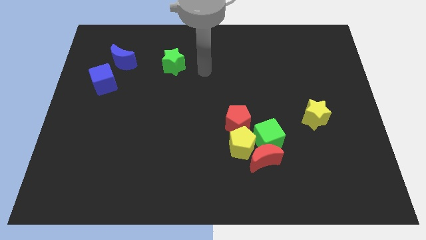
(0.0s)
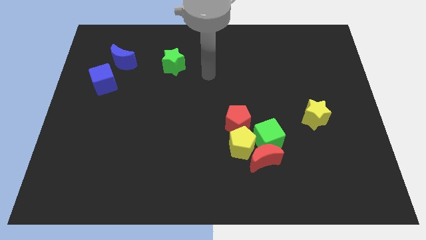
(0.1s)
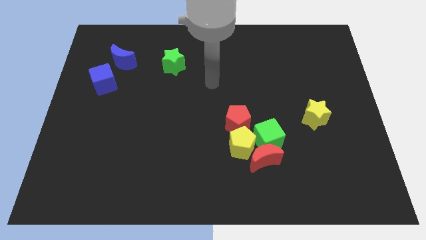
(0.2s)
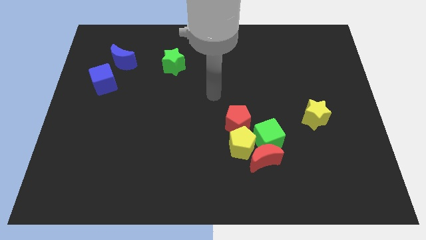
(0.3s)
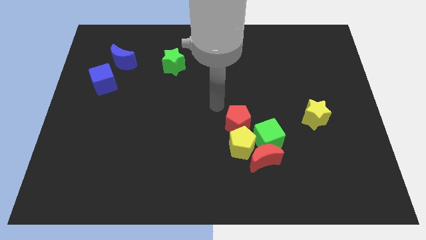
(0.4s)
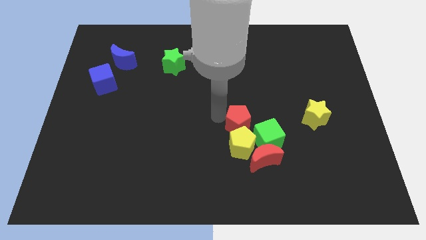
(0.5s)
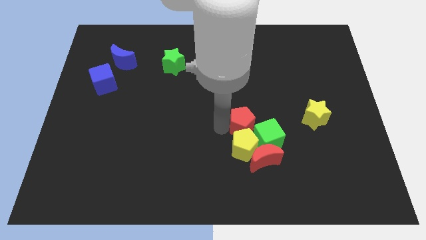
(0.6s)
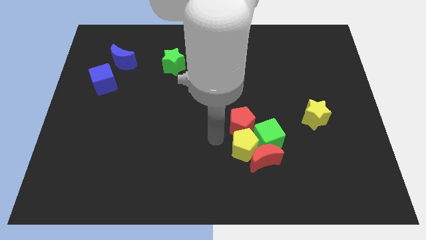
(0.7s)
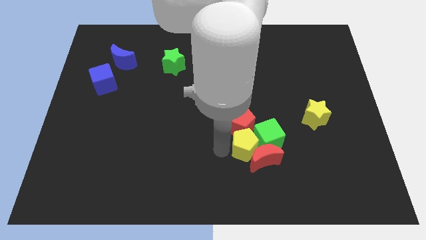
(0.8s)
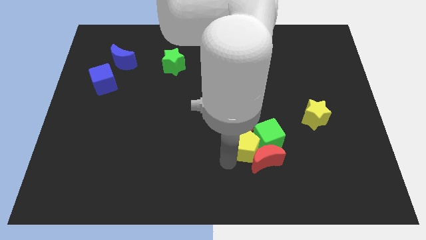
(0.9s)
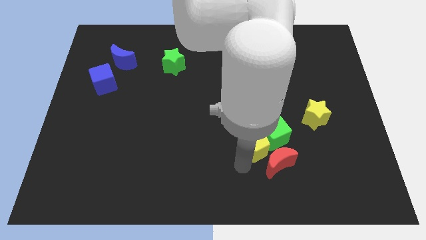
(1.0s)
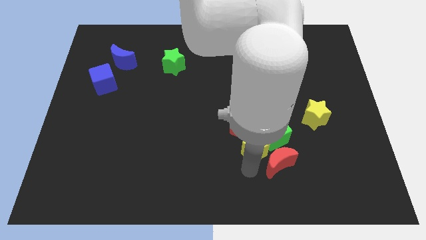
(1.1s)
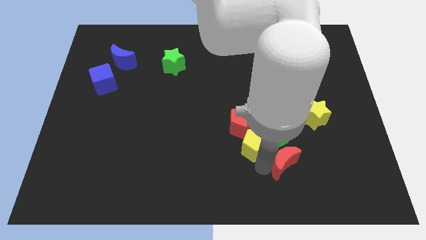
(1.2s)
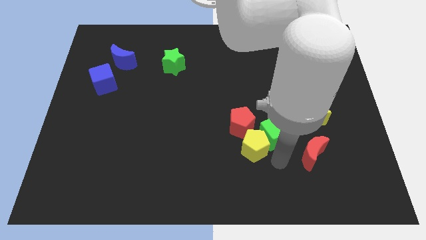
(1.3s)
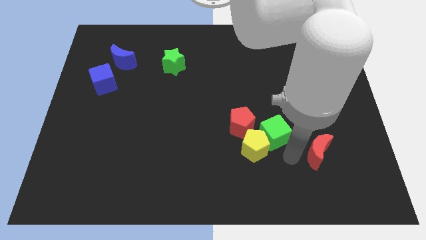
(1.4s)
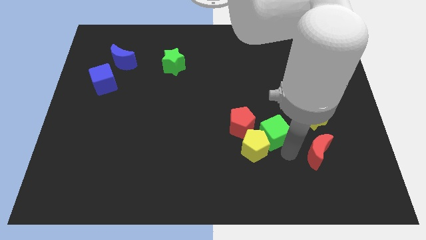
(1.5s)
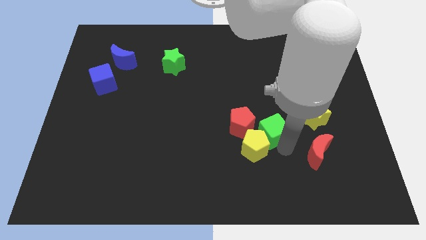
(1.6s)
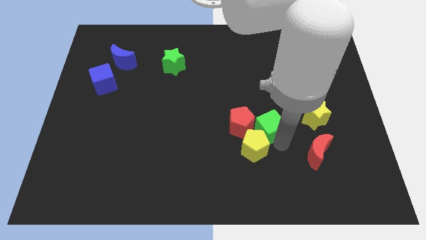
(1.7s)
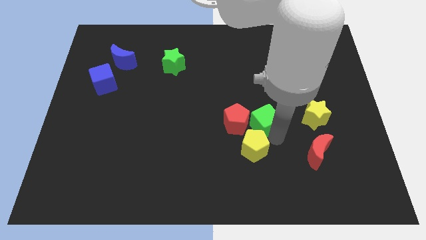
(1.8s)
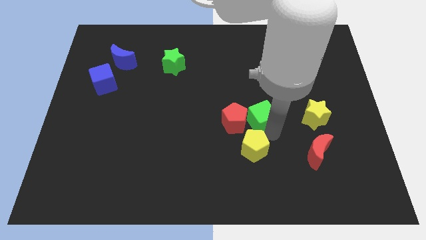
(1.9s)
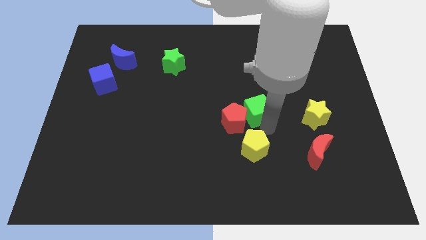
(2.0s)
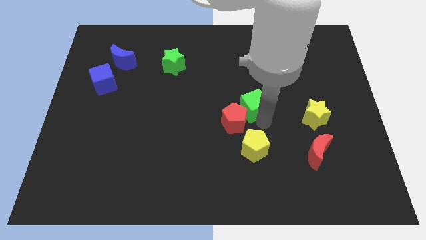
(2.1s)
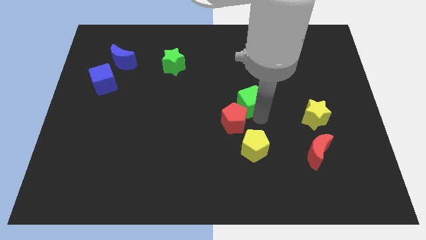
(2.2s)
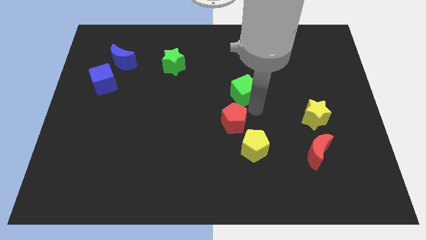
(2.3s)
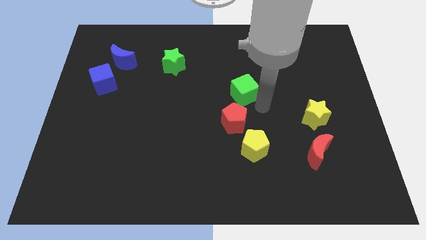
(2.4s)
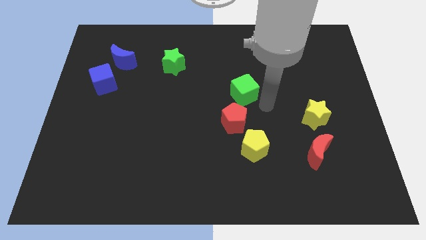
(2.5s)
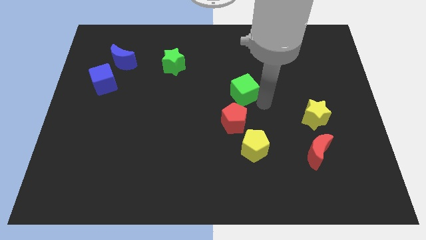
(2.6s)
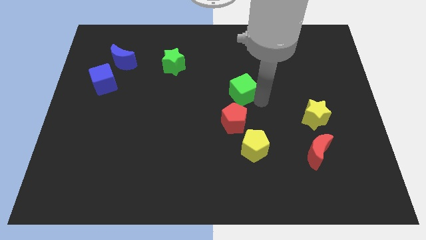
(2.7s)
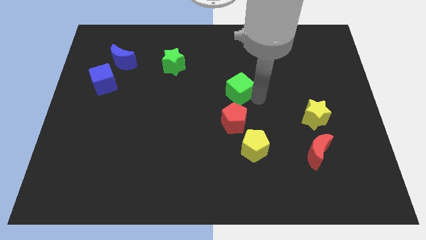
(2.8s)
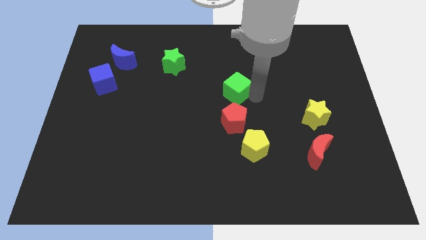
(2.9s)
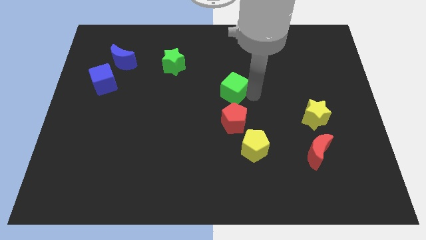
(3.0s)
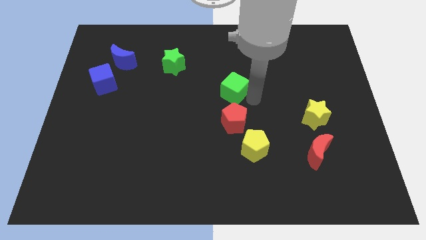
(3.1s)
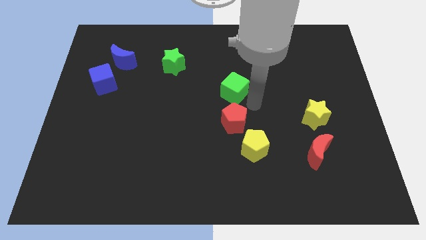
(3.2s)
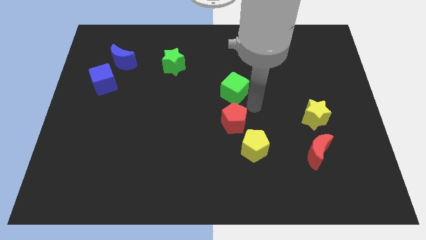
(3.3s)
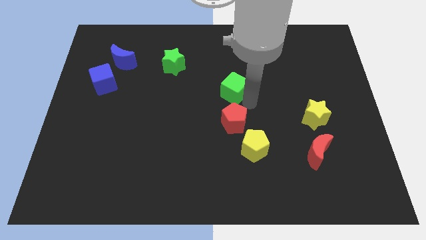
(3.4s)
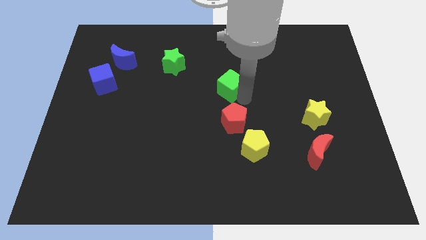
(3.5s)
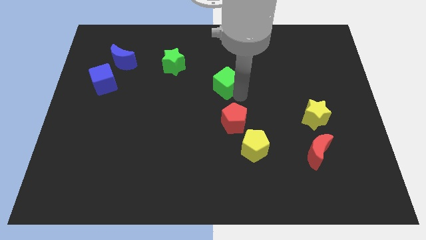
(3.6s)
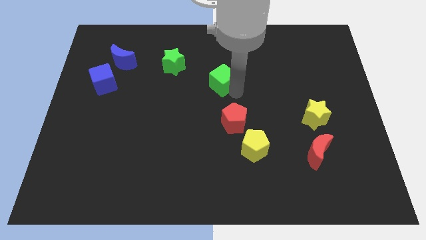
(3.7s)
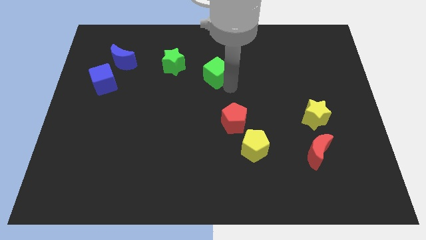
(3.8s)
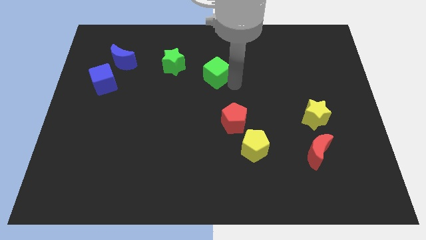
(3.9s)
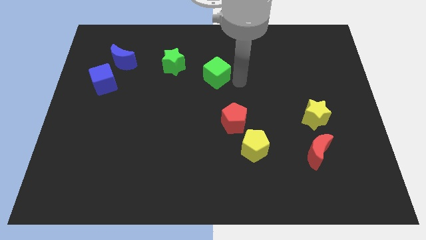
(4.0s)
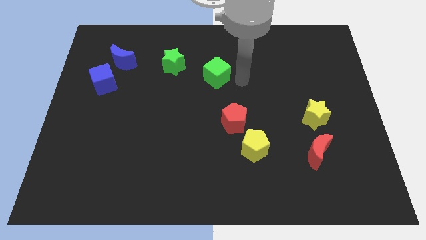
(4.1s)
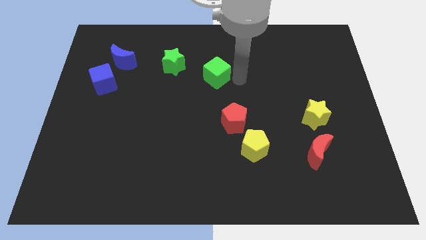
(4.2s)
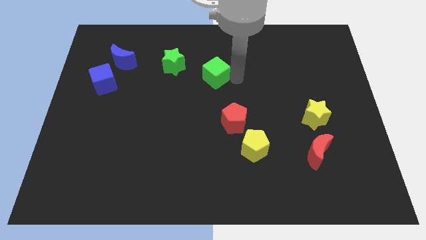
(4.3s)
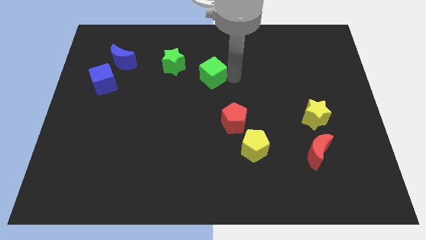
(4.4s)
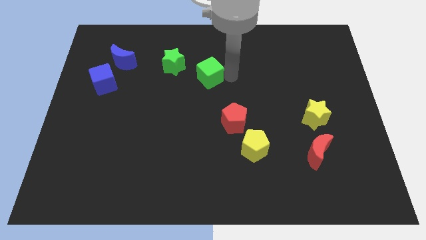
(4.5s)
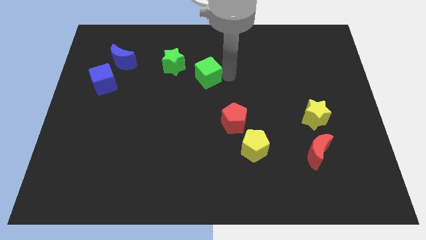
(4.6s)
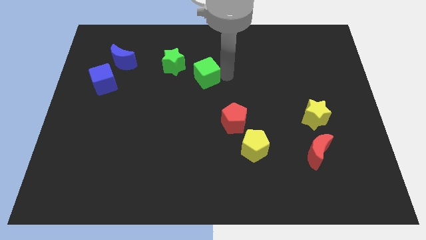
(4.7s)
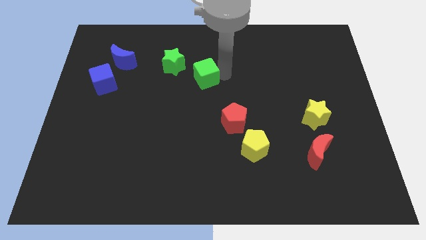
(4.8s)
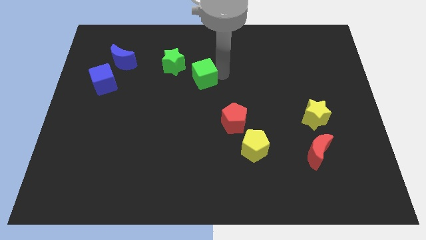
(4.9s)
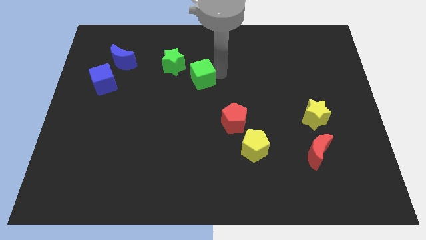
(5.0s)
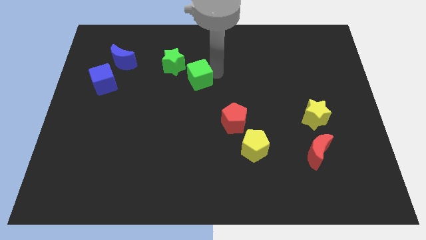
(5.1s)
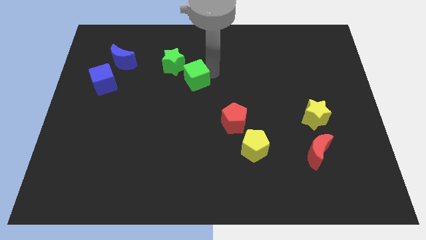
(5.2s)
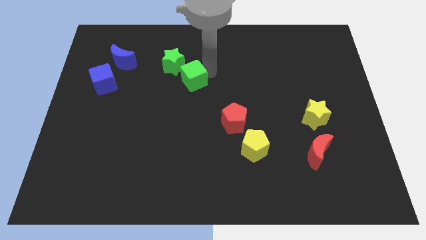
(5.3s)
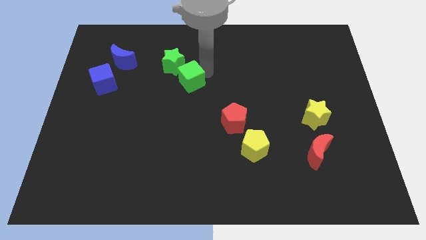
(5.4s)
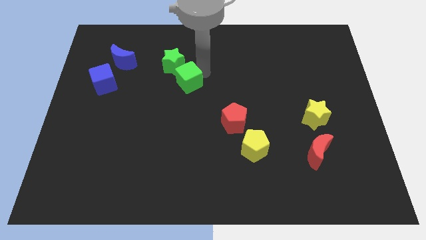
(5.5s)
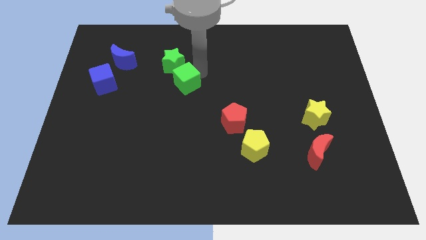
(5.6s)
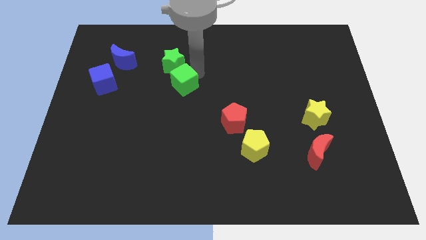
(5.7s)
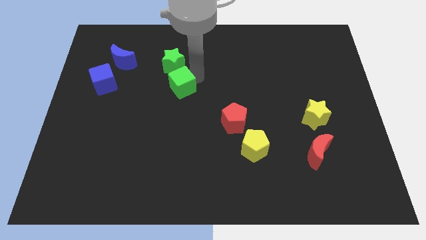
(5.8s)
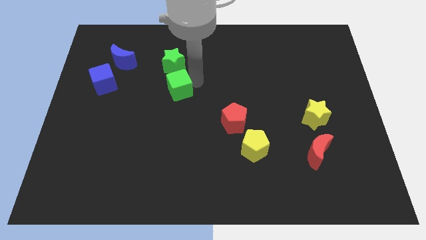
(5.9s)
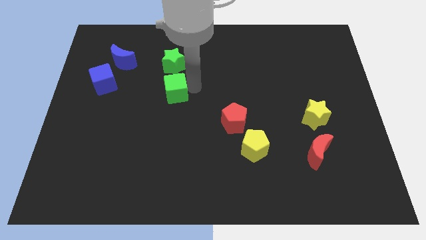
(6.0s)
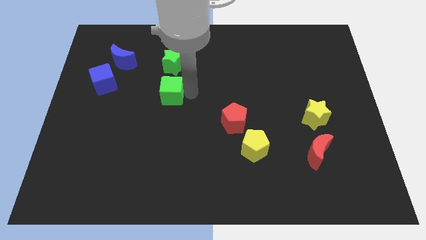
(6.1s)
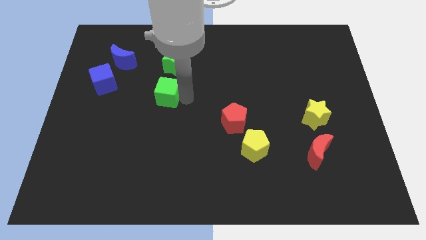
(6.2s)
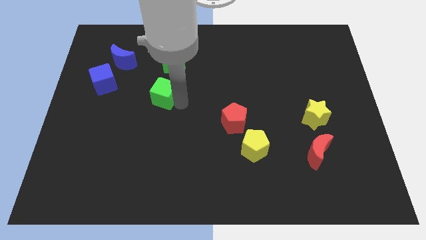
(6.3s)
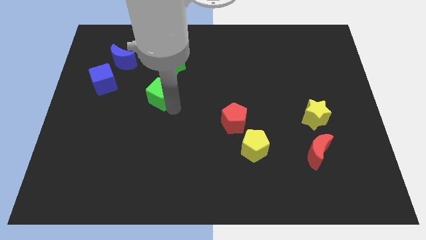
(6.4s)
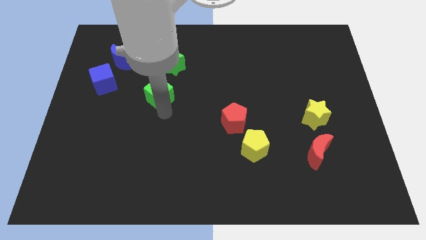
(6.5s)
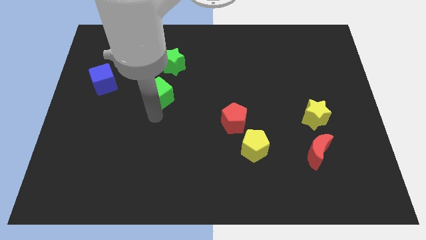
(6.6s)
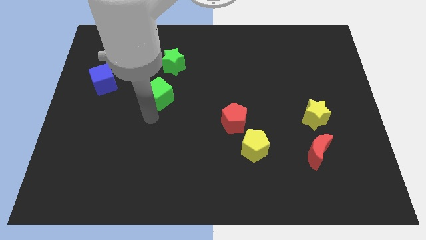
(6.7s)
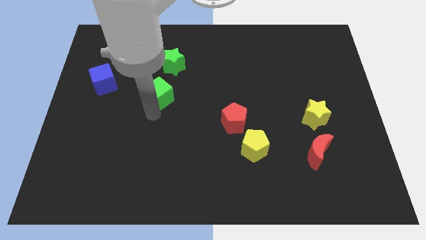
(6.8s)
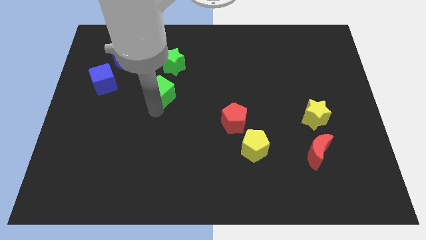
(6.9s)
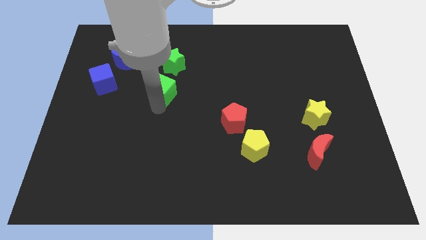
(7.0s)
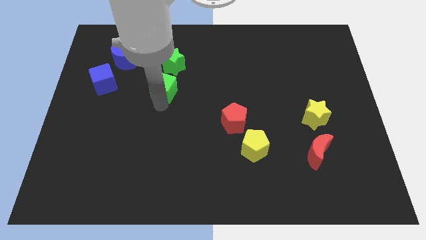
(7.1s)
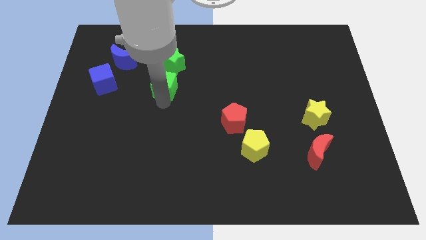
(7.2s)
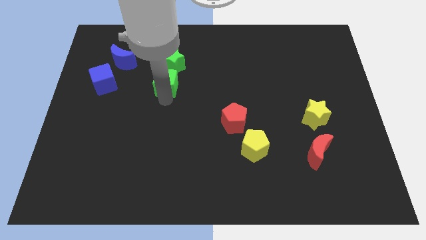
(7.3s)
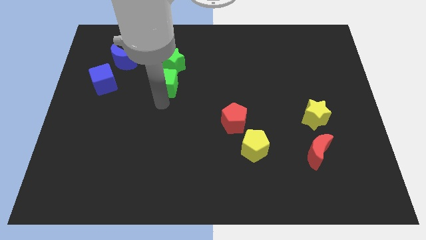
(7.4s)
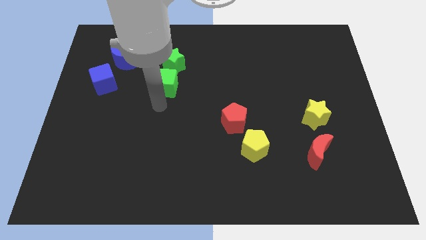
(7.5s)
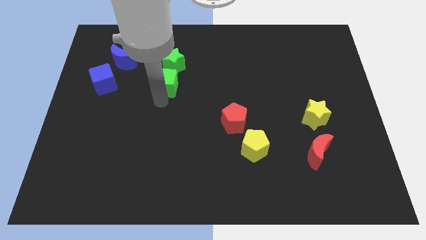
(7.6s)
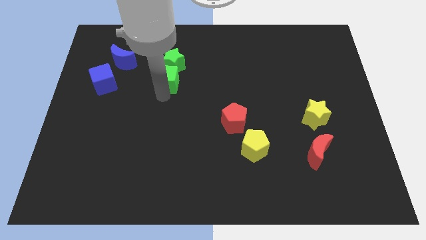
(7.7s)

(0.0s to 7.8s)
slide the green cube close to the green star

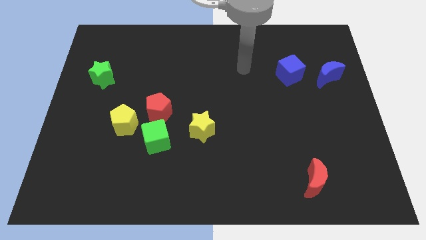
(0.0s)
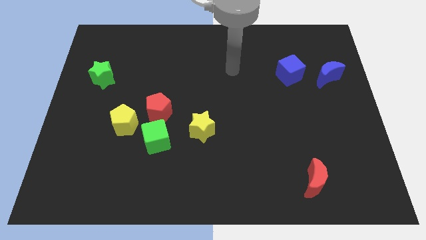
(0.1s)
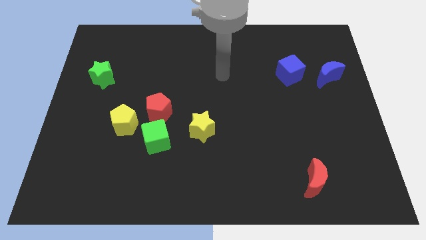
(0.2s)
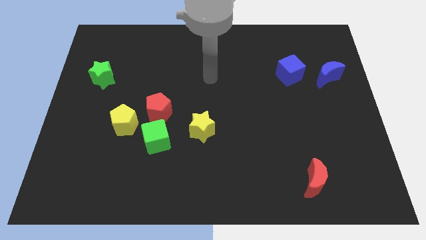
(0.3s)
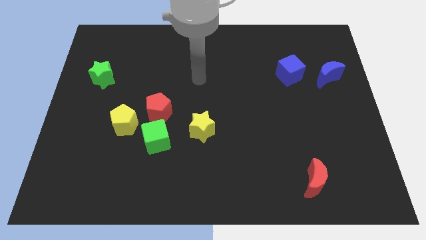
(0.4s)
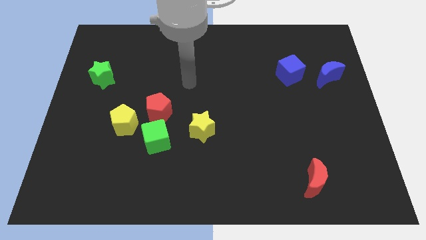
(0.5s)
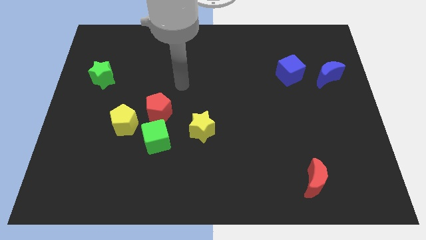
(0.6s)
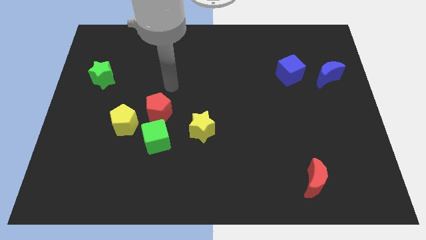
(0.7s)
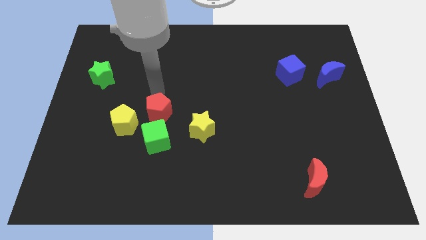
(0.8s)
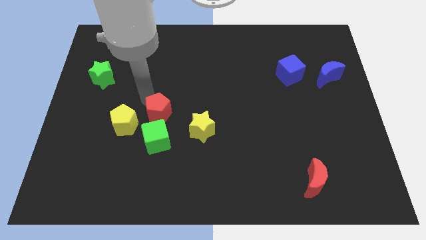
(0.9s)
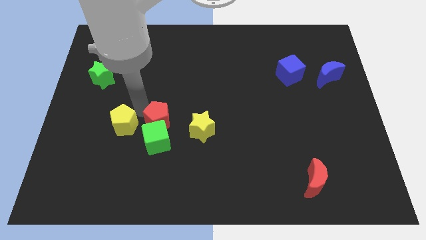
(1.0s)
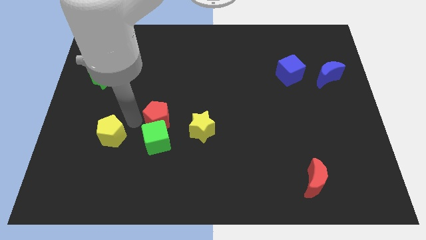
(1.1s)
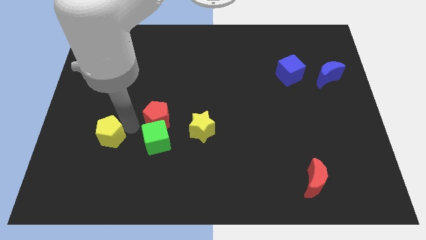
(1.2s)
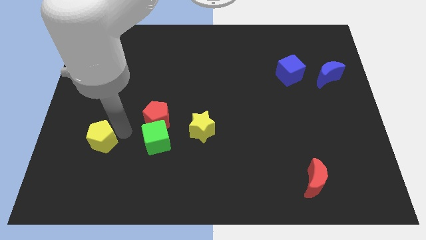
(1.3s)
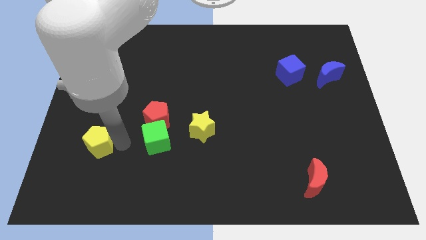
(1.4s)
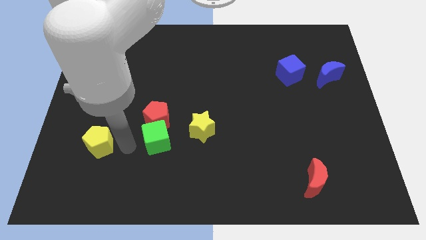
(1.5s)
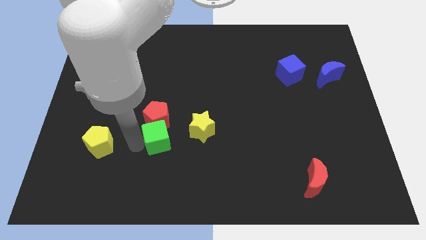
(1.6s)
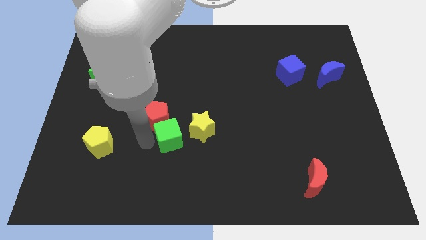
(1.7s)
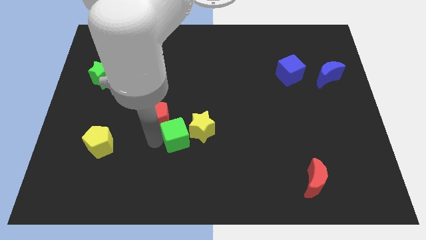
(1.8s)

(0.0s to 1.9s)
move the green cube towards the yellow star
